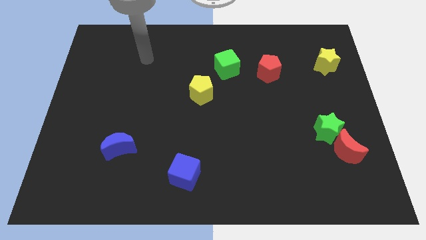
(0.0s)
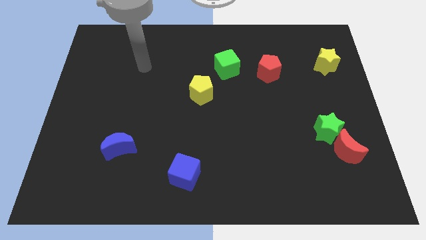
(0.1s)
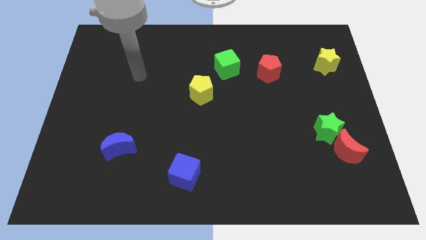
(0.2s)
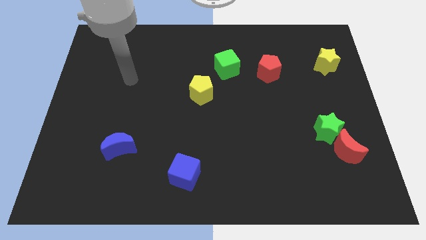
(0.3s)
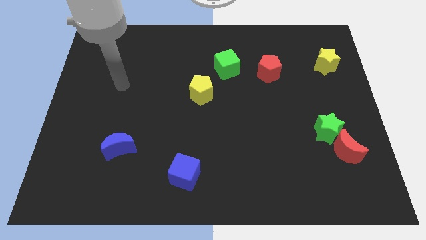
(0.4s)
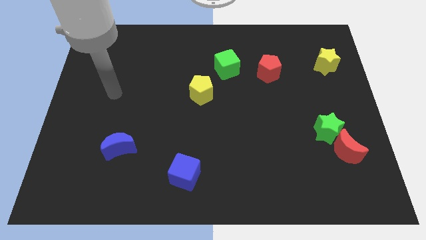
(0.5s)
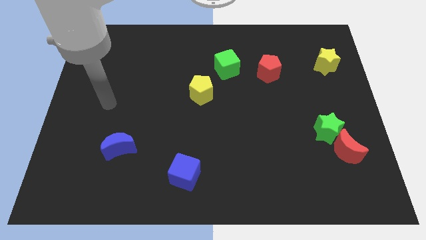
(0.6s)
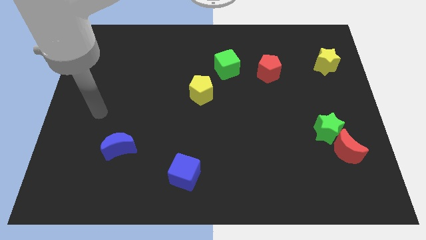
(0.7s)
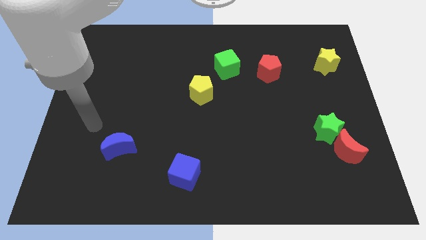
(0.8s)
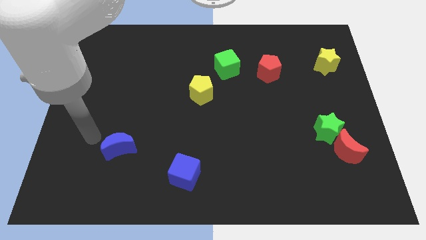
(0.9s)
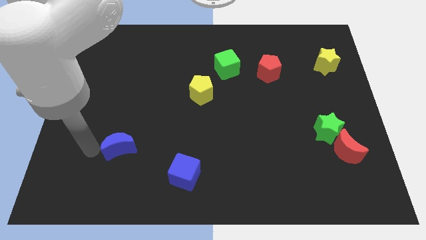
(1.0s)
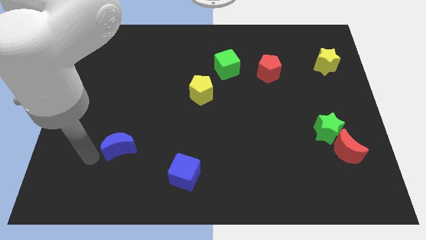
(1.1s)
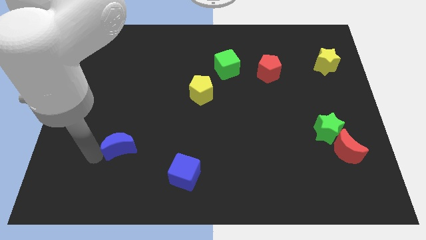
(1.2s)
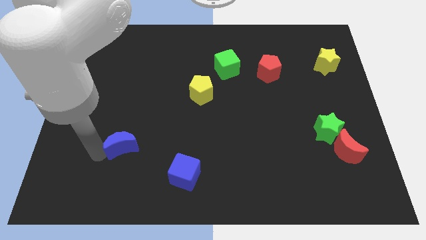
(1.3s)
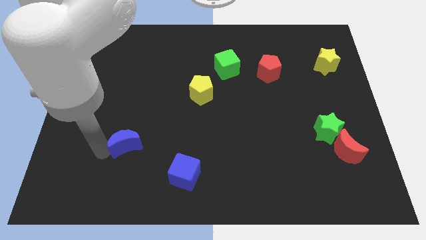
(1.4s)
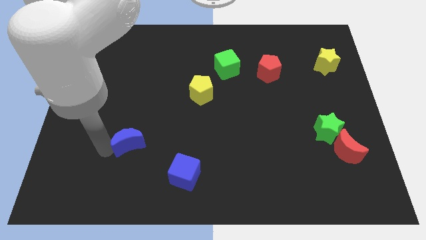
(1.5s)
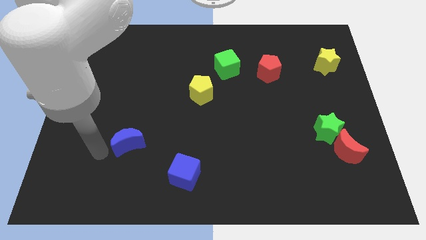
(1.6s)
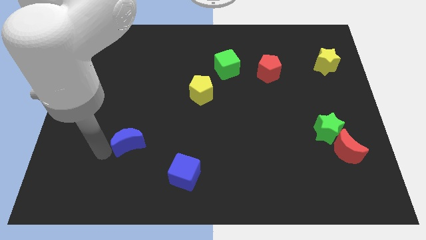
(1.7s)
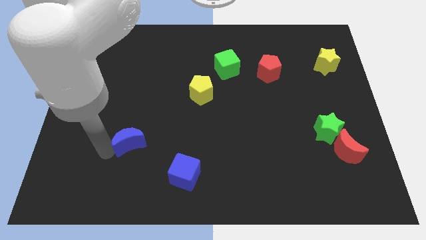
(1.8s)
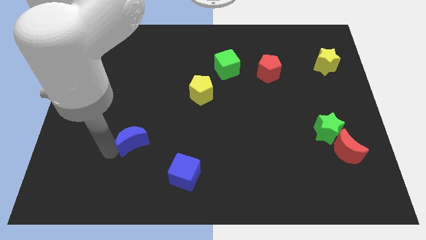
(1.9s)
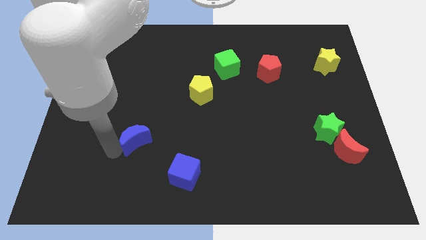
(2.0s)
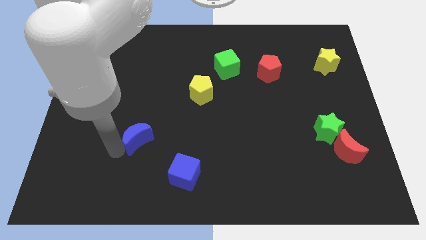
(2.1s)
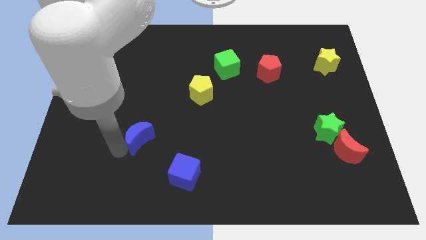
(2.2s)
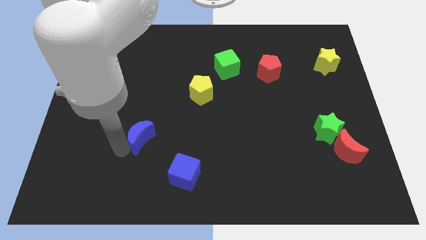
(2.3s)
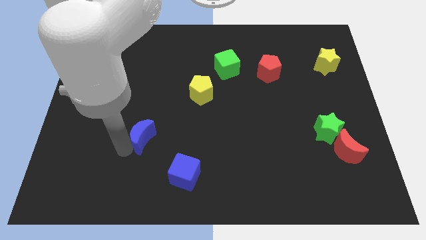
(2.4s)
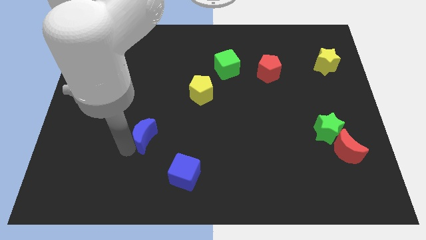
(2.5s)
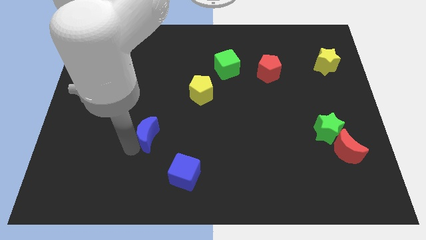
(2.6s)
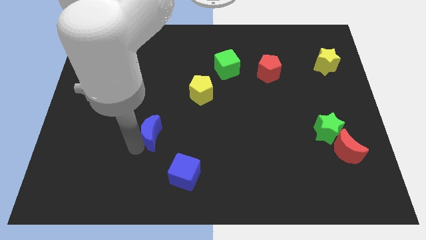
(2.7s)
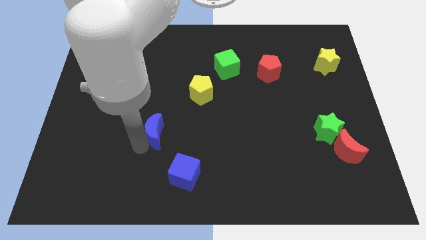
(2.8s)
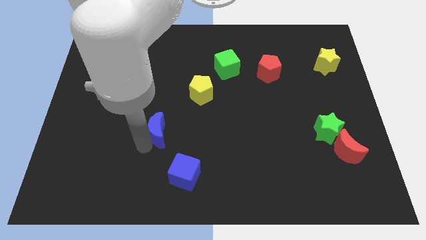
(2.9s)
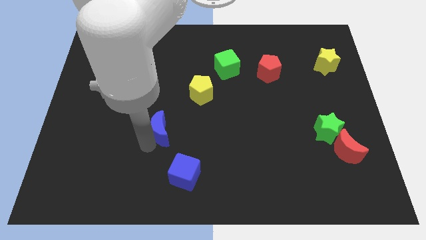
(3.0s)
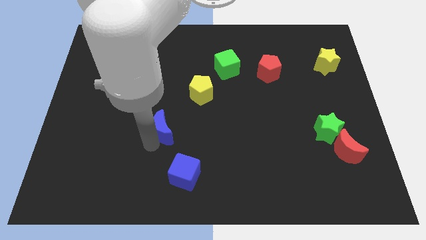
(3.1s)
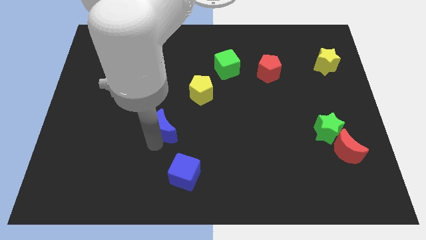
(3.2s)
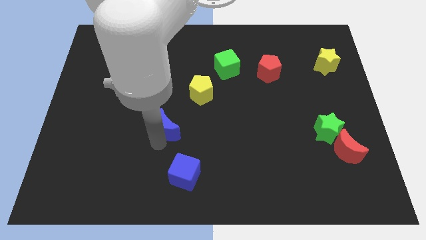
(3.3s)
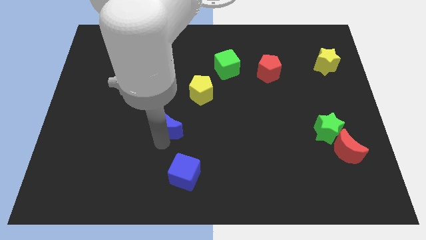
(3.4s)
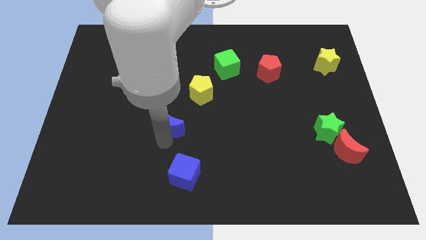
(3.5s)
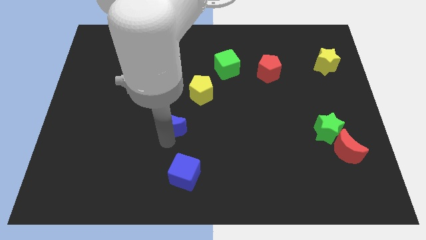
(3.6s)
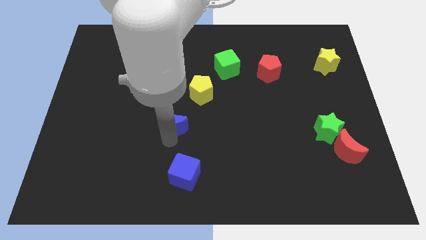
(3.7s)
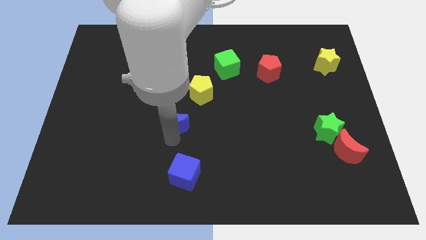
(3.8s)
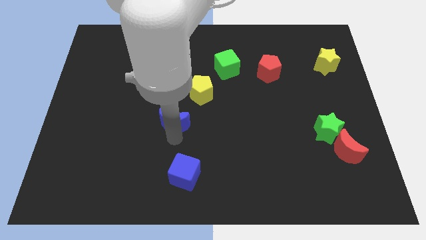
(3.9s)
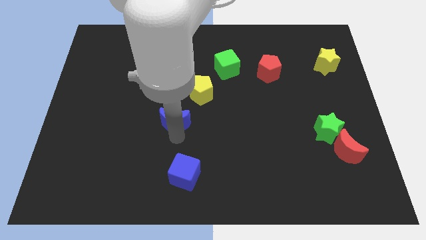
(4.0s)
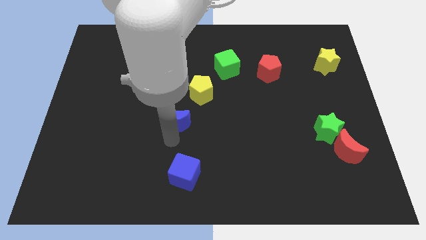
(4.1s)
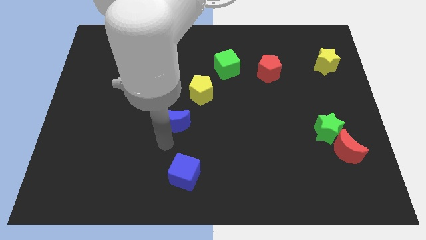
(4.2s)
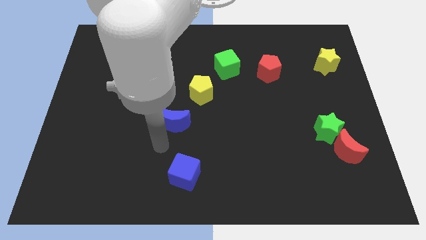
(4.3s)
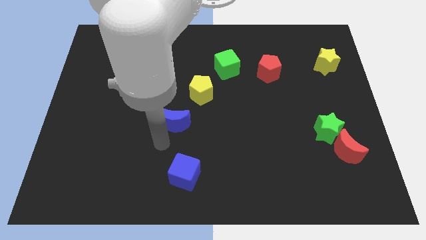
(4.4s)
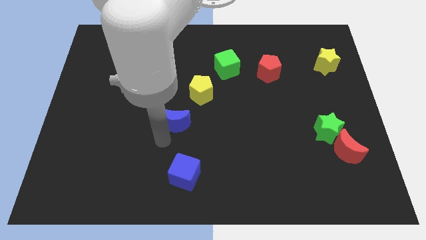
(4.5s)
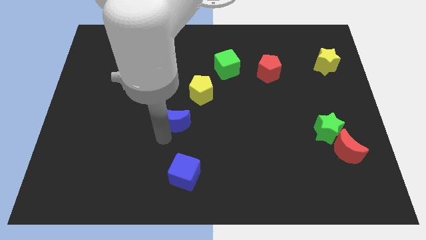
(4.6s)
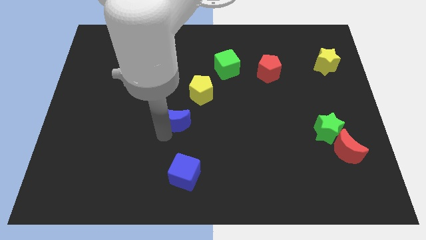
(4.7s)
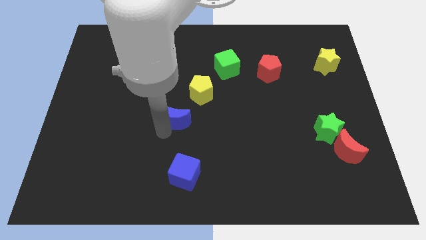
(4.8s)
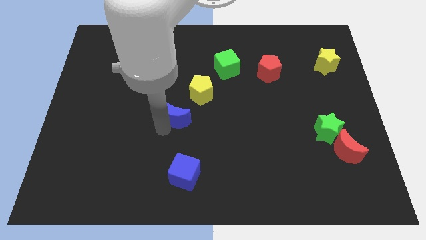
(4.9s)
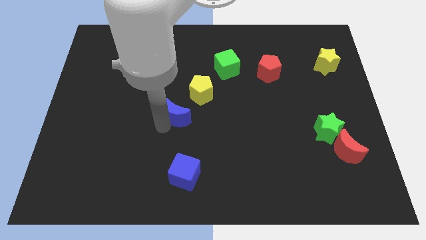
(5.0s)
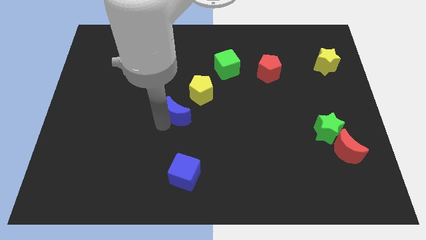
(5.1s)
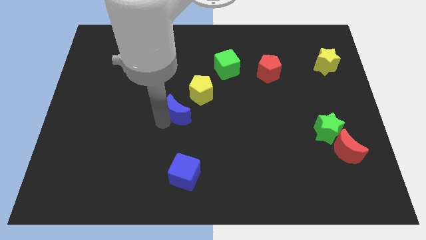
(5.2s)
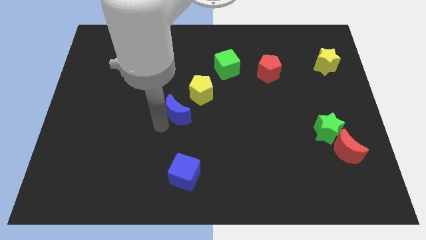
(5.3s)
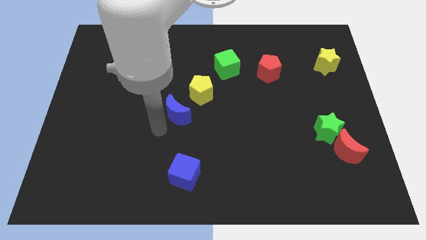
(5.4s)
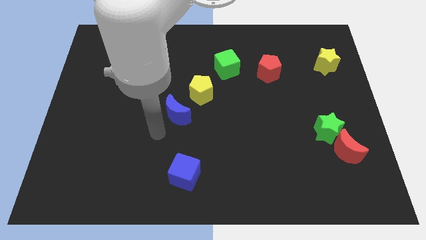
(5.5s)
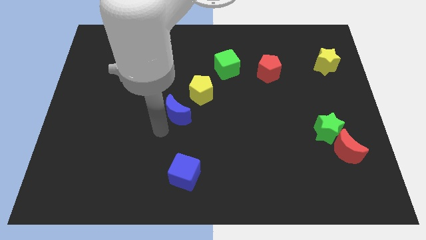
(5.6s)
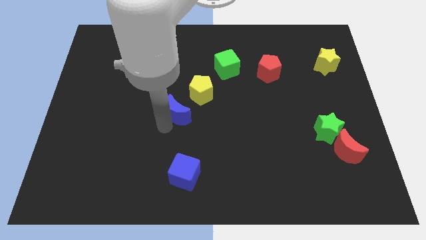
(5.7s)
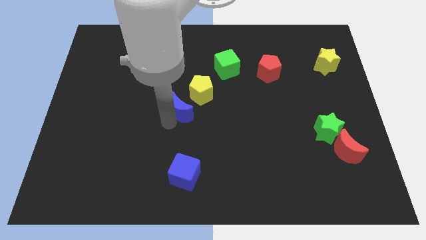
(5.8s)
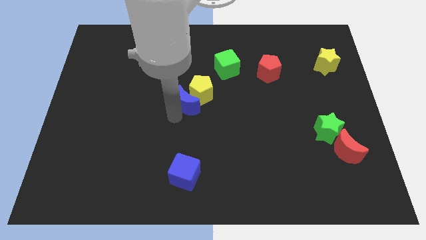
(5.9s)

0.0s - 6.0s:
slide the blue moon close to the yellow pentagon

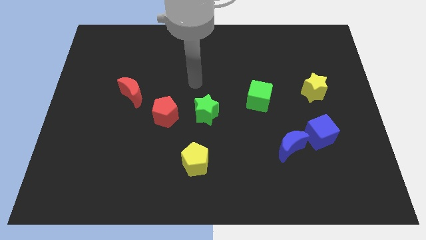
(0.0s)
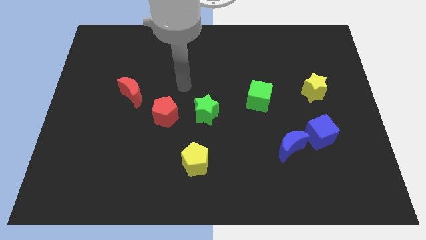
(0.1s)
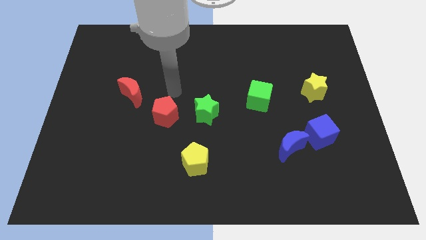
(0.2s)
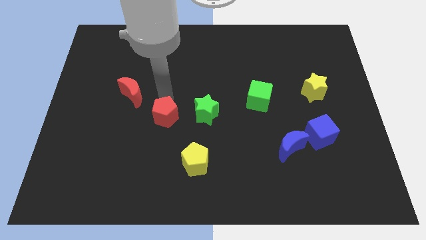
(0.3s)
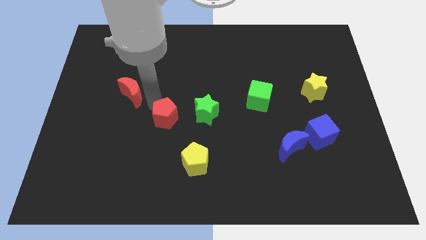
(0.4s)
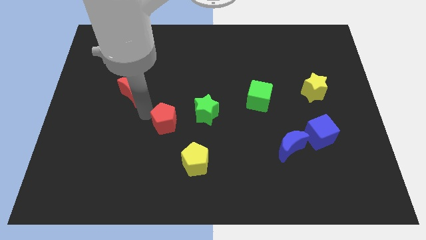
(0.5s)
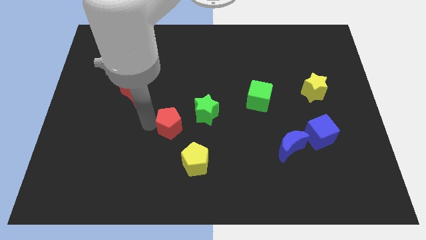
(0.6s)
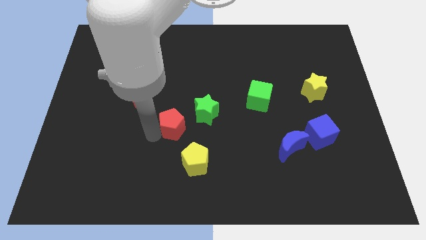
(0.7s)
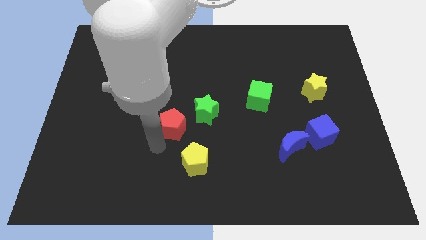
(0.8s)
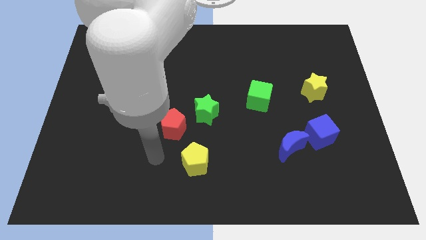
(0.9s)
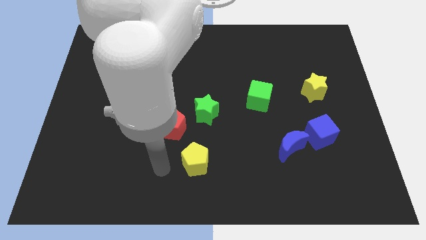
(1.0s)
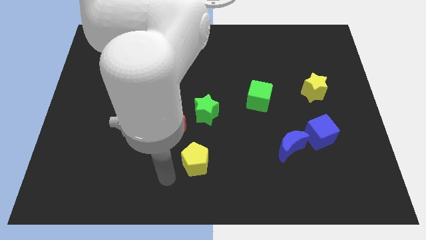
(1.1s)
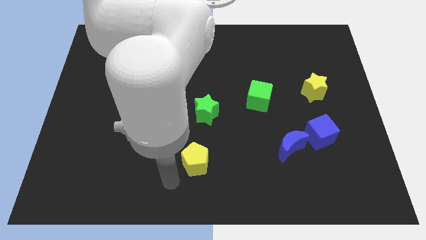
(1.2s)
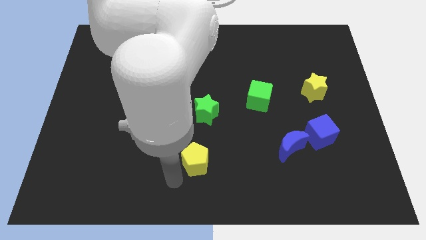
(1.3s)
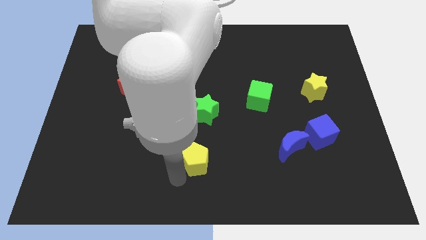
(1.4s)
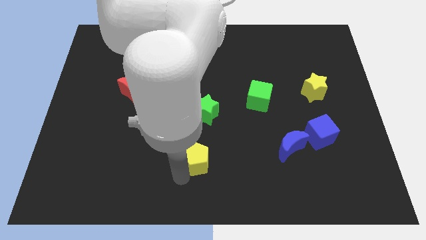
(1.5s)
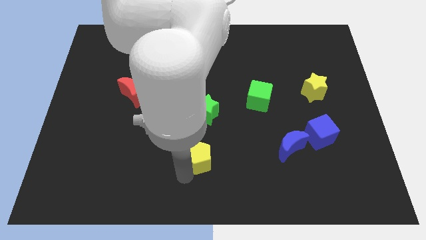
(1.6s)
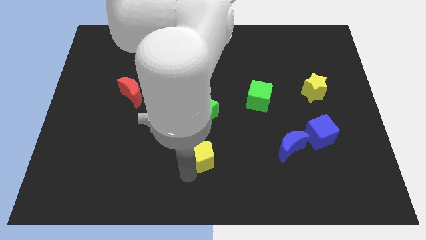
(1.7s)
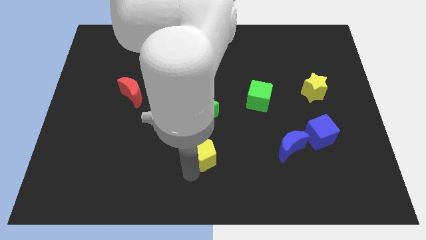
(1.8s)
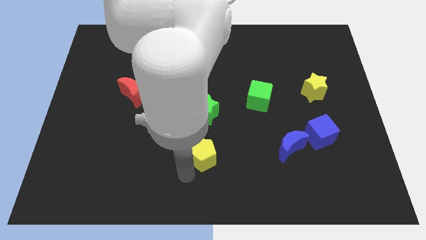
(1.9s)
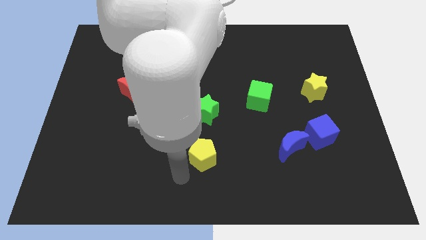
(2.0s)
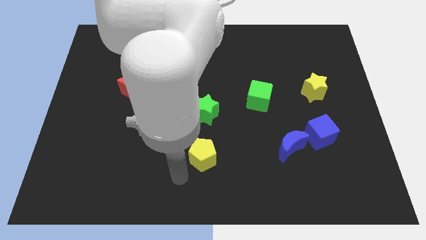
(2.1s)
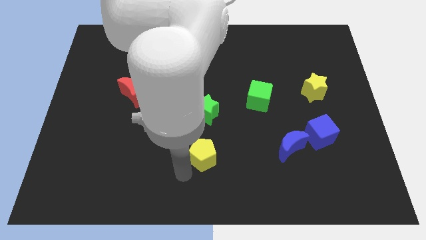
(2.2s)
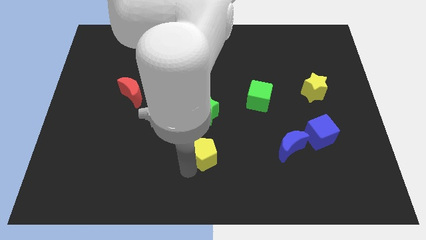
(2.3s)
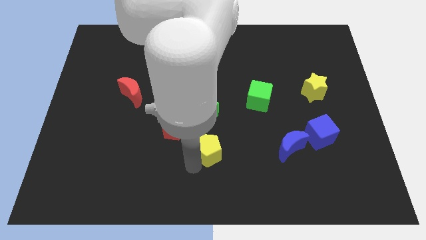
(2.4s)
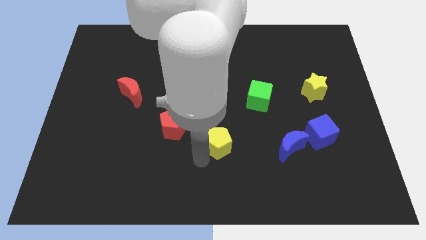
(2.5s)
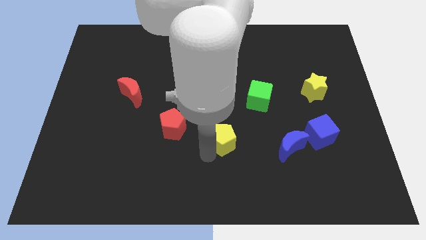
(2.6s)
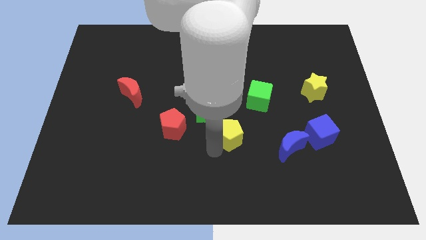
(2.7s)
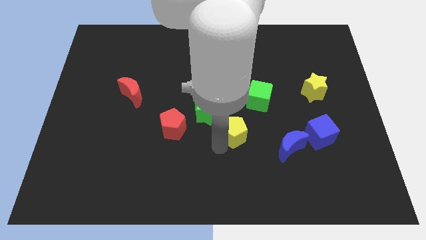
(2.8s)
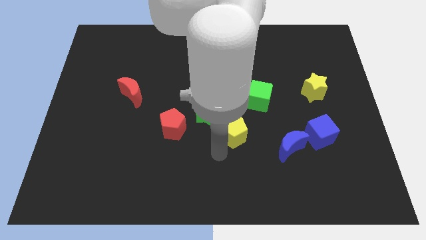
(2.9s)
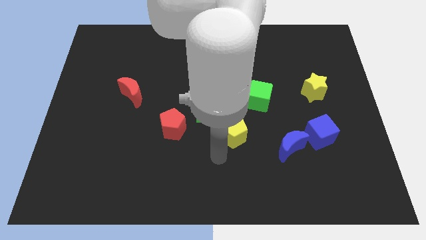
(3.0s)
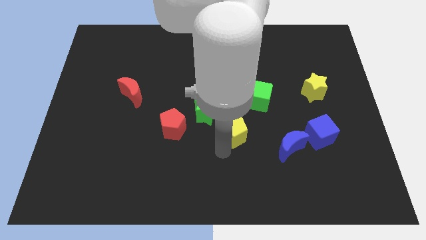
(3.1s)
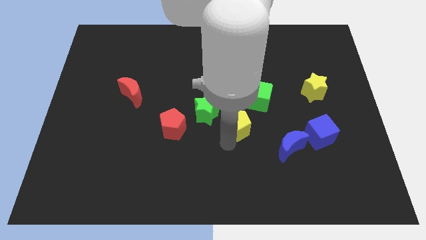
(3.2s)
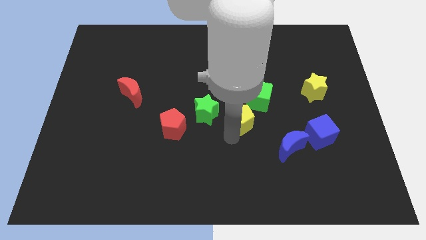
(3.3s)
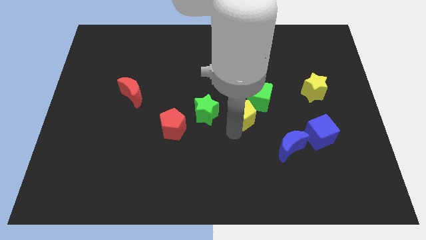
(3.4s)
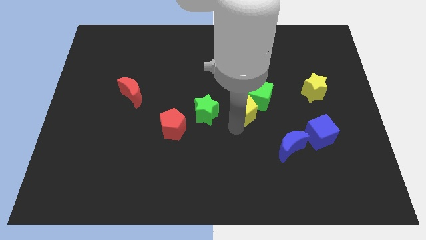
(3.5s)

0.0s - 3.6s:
move the yellow pentagon to the green cube
